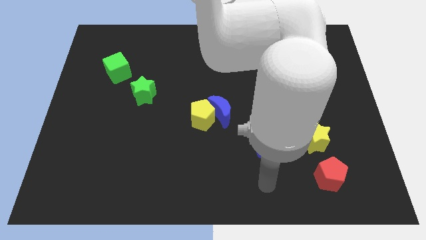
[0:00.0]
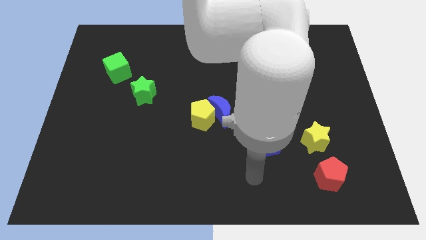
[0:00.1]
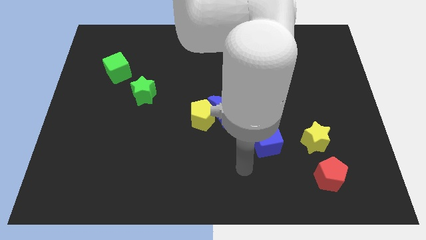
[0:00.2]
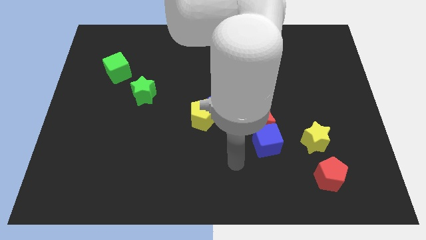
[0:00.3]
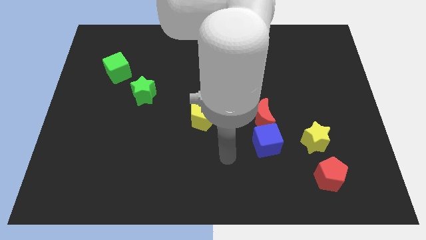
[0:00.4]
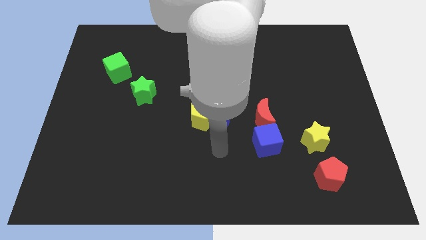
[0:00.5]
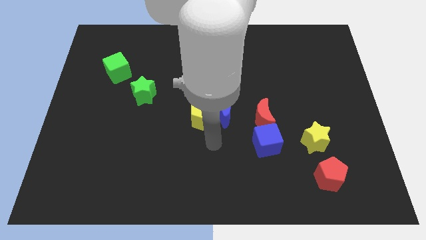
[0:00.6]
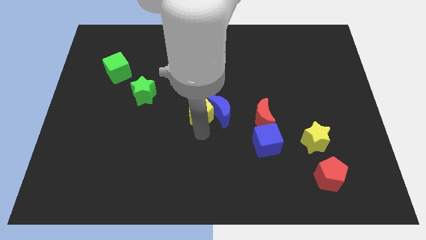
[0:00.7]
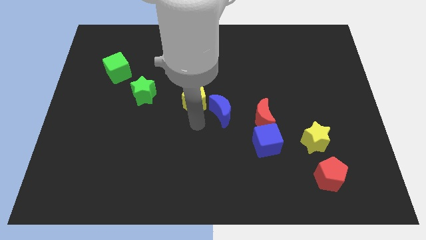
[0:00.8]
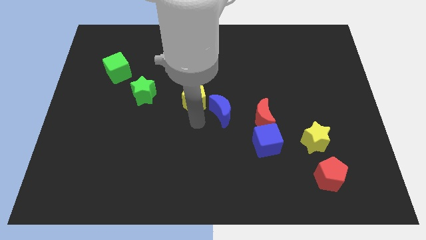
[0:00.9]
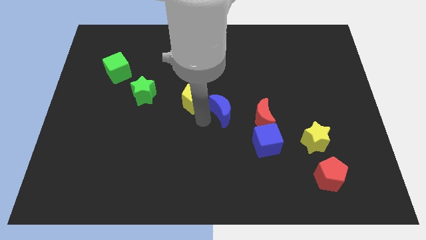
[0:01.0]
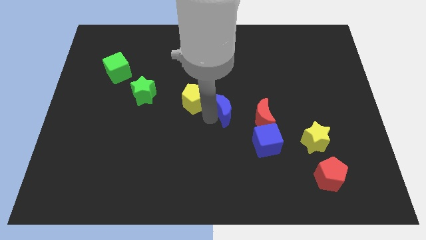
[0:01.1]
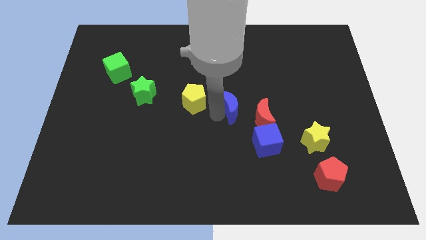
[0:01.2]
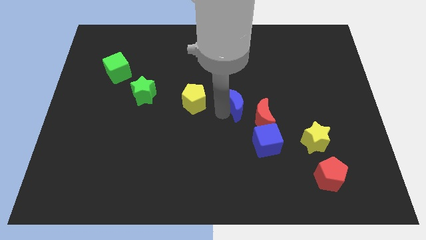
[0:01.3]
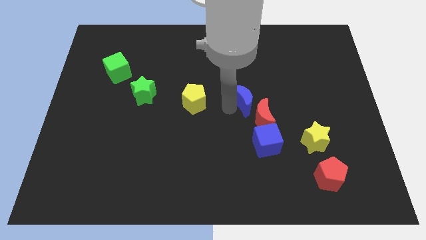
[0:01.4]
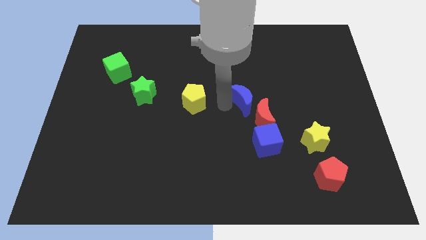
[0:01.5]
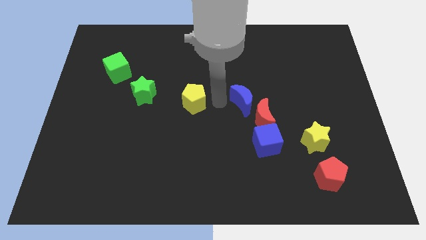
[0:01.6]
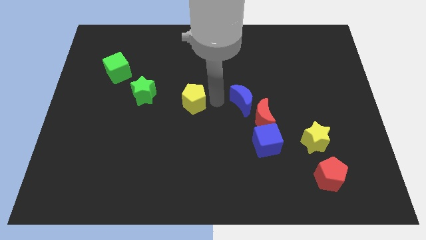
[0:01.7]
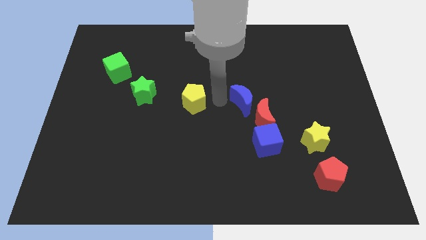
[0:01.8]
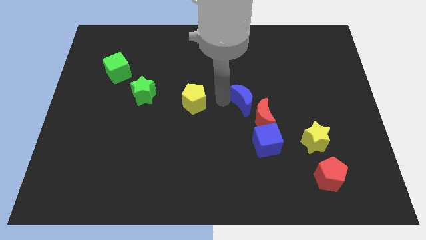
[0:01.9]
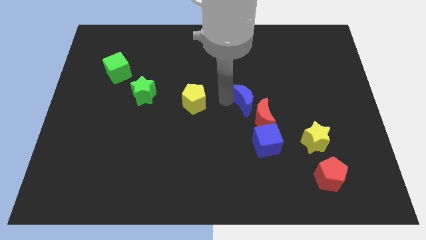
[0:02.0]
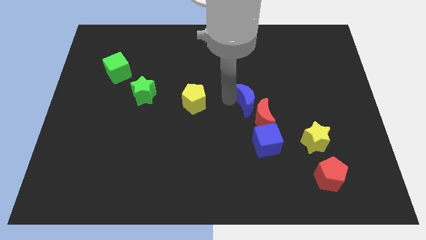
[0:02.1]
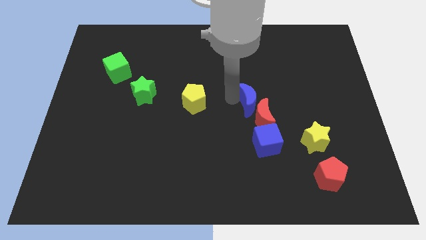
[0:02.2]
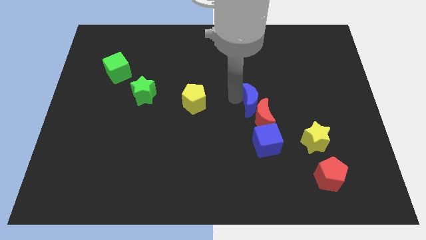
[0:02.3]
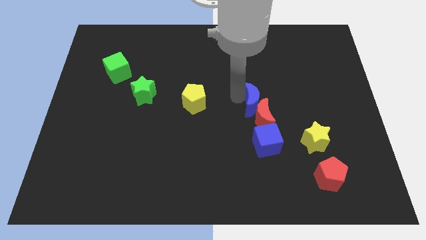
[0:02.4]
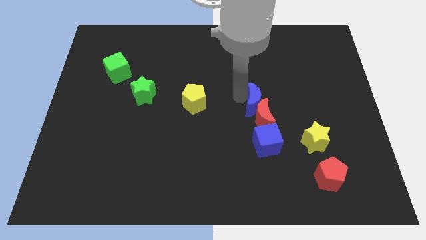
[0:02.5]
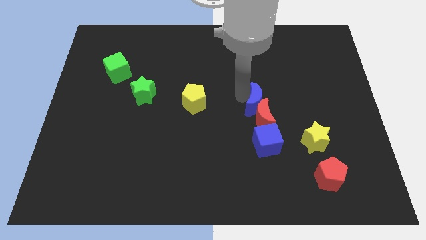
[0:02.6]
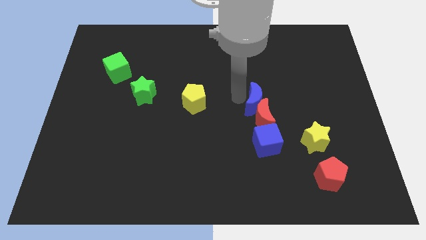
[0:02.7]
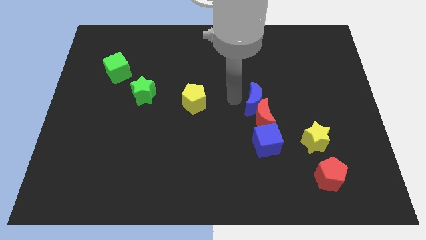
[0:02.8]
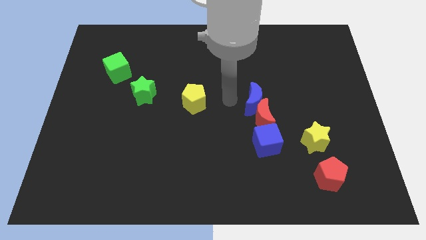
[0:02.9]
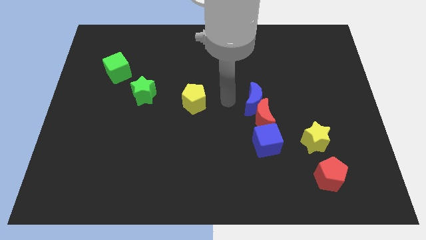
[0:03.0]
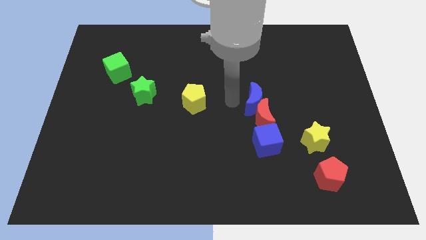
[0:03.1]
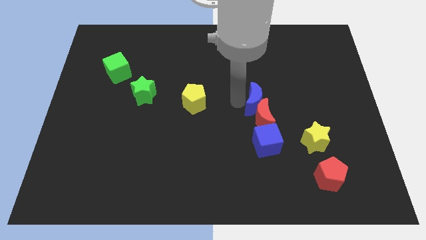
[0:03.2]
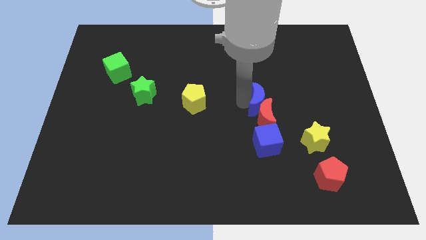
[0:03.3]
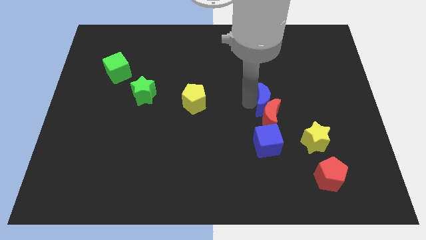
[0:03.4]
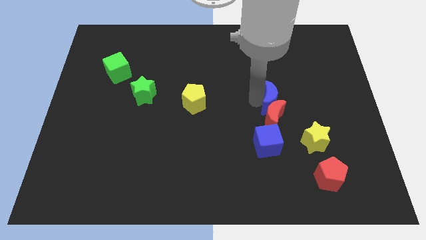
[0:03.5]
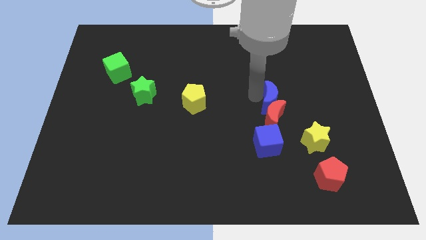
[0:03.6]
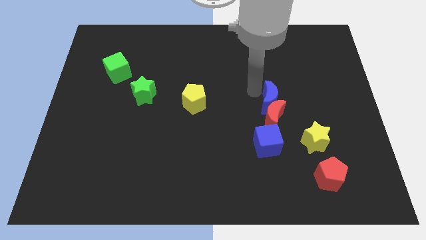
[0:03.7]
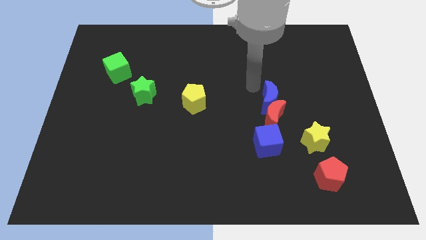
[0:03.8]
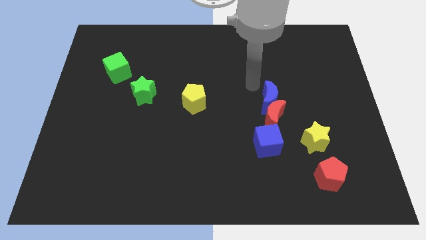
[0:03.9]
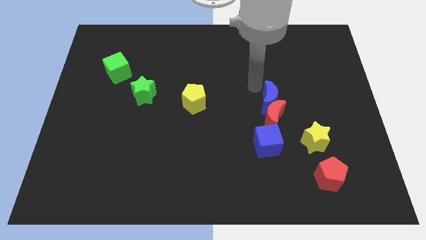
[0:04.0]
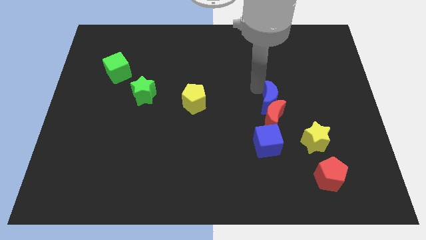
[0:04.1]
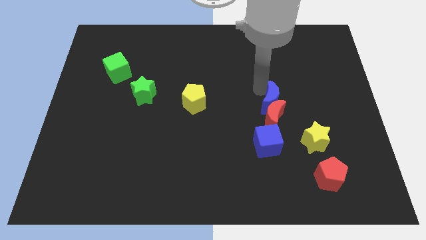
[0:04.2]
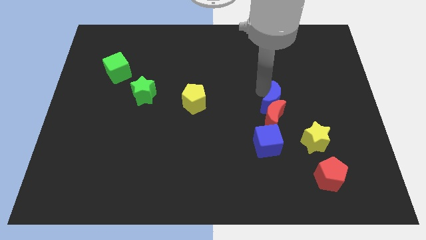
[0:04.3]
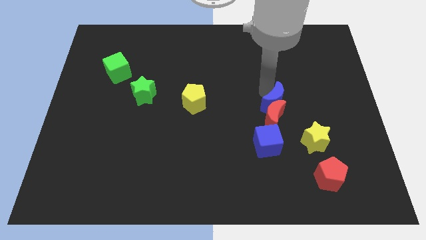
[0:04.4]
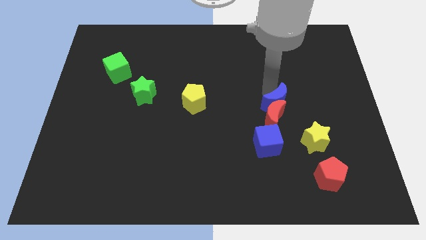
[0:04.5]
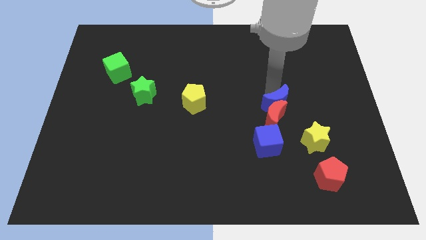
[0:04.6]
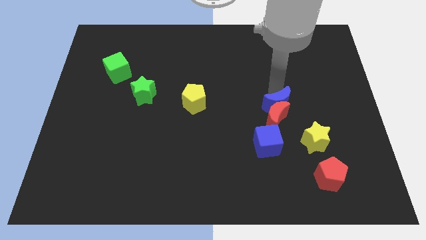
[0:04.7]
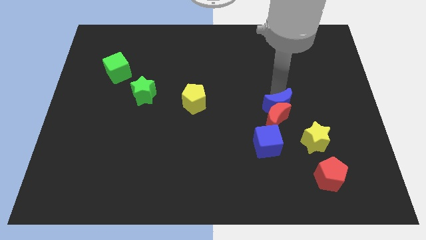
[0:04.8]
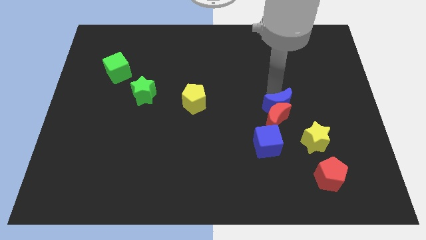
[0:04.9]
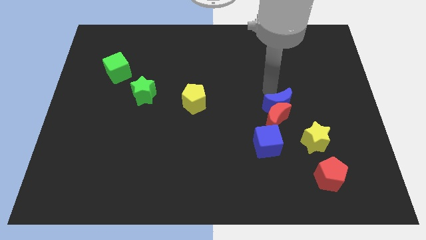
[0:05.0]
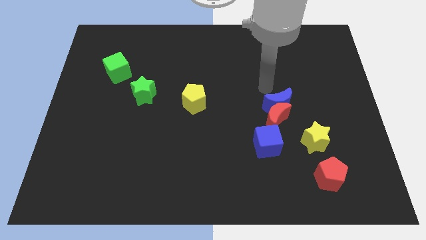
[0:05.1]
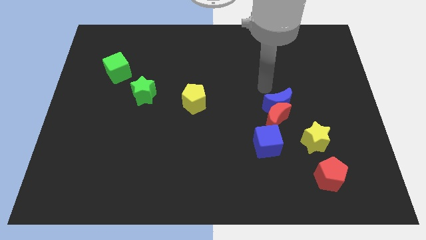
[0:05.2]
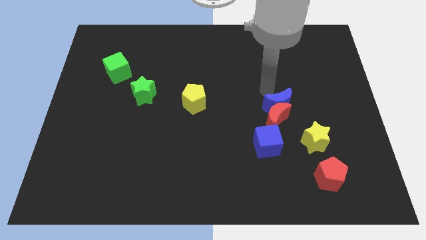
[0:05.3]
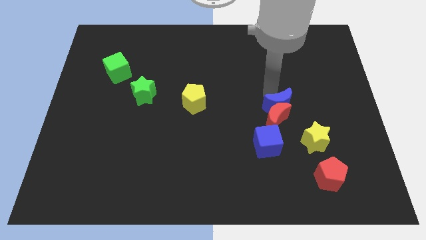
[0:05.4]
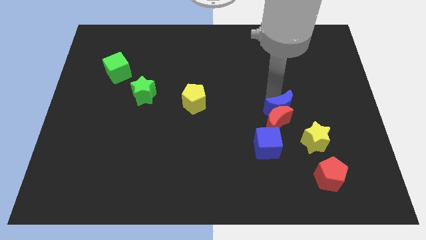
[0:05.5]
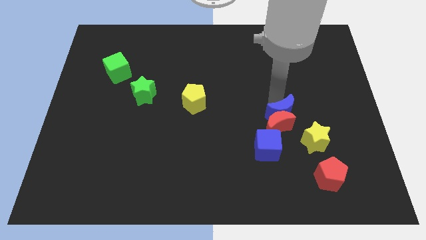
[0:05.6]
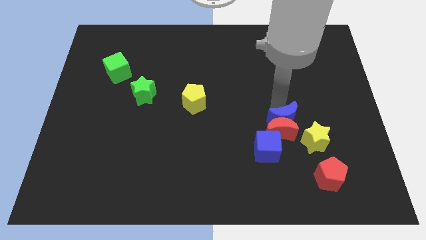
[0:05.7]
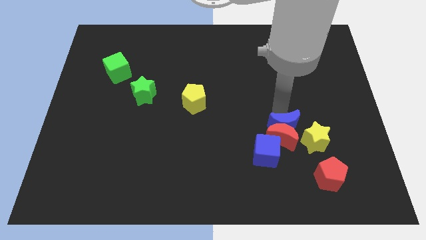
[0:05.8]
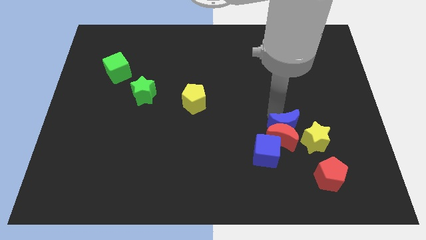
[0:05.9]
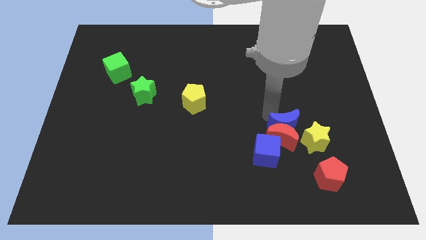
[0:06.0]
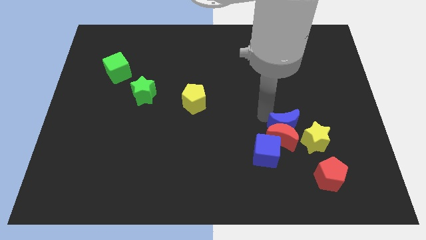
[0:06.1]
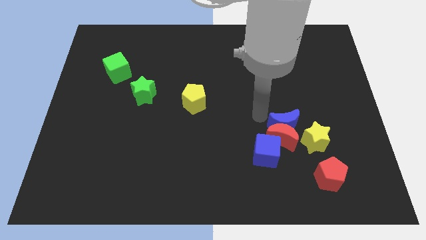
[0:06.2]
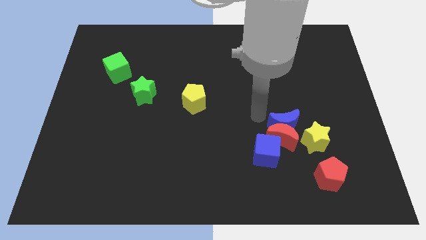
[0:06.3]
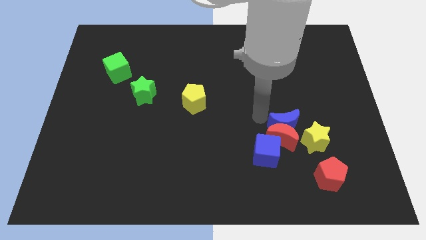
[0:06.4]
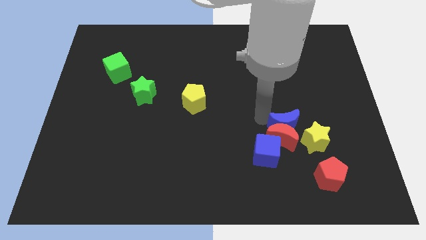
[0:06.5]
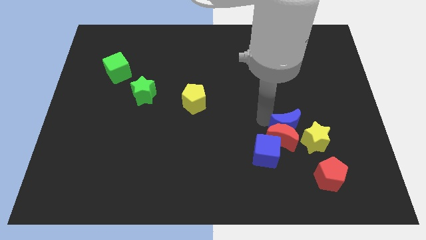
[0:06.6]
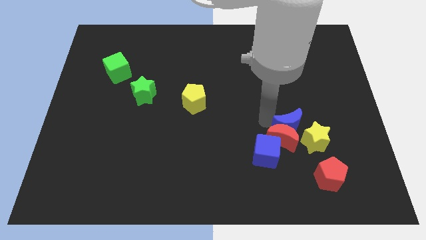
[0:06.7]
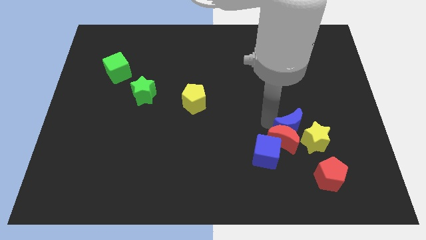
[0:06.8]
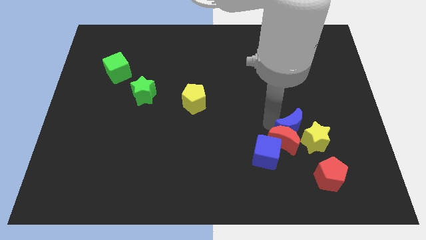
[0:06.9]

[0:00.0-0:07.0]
move the blue moon towards the yellow star

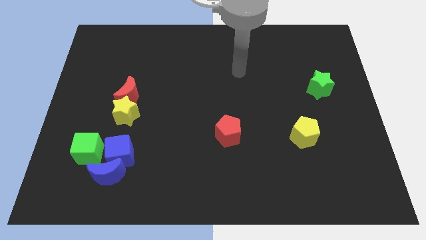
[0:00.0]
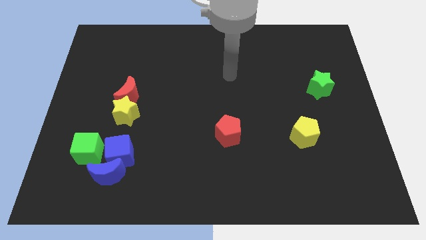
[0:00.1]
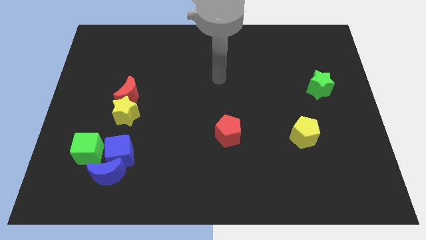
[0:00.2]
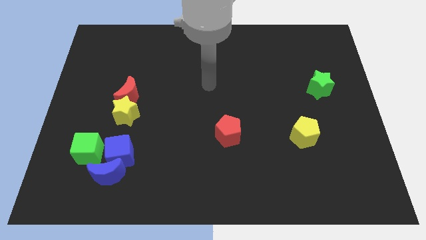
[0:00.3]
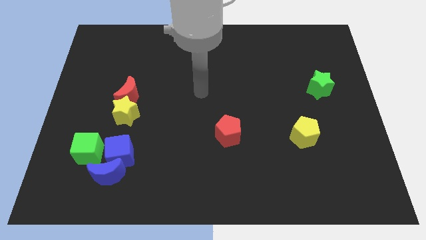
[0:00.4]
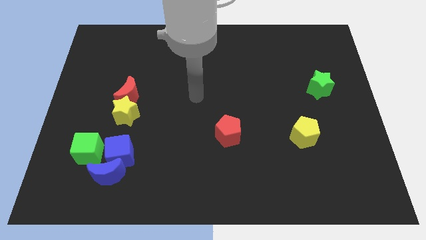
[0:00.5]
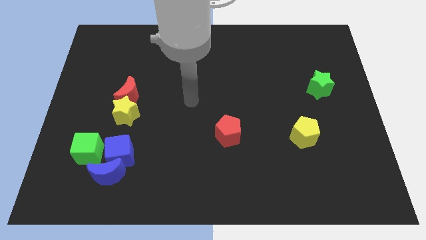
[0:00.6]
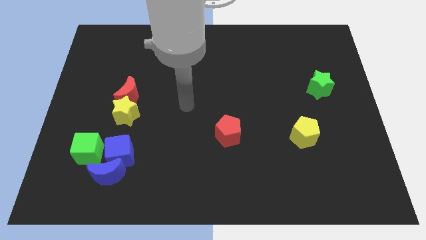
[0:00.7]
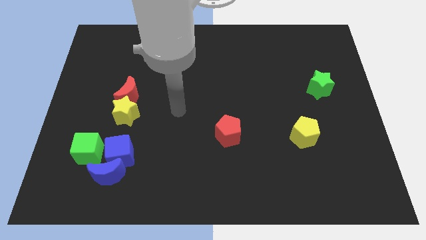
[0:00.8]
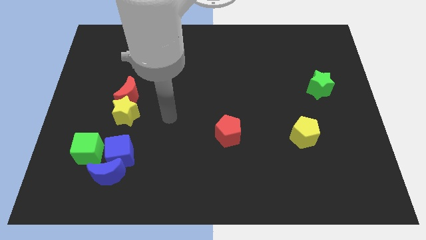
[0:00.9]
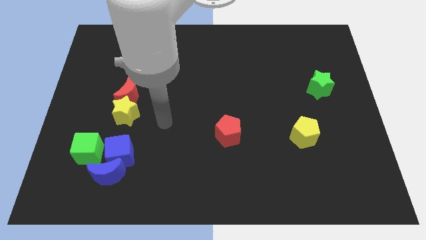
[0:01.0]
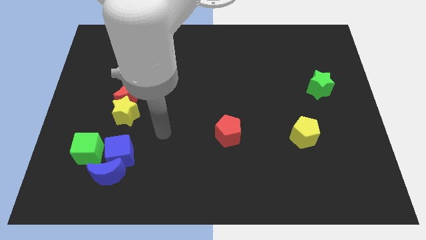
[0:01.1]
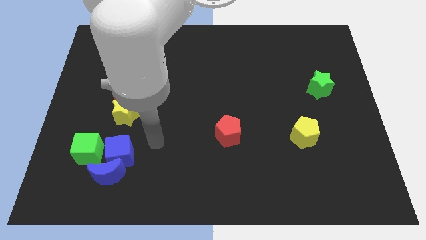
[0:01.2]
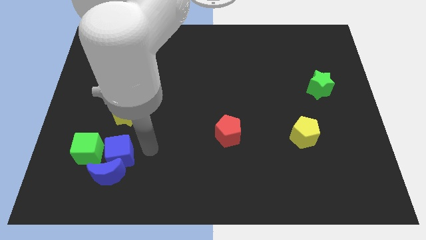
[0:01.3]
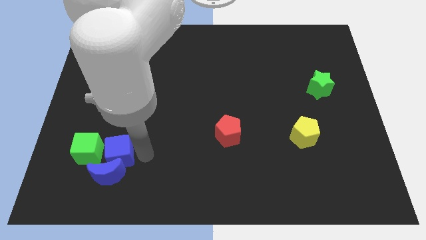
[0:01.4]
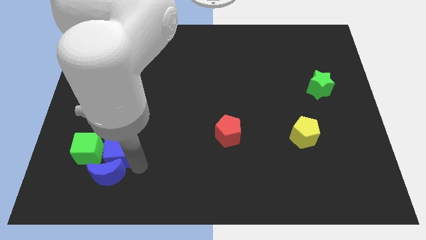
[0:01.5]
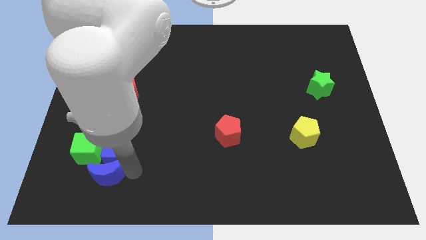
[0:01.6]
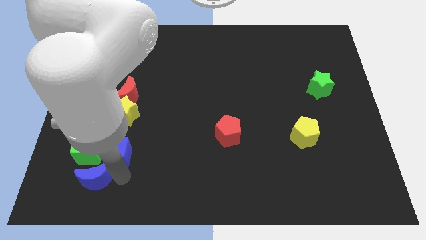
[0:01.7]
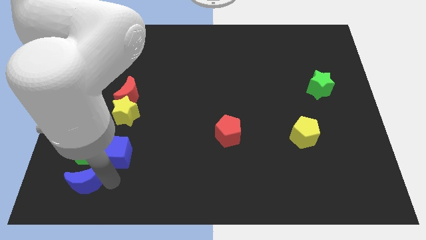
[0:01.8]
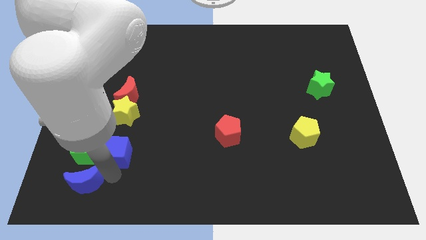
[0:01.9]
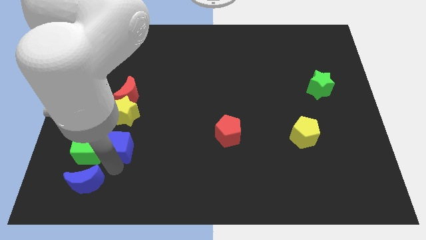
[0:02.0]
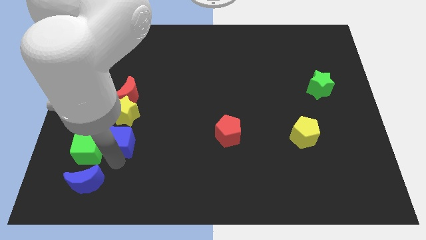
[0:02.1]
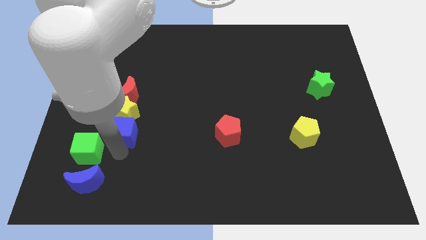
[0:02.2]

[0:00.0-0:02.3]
push the blue cube close to the yellow star
